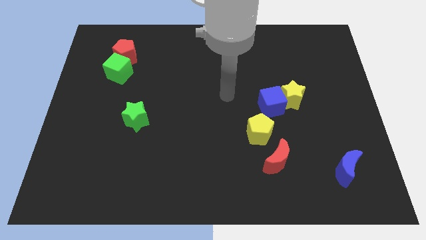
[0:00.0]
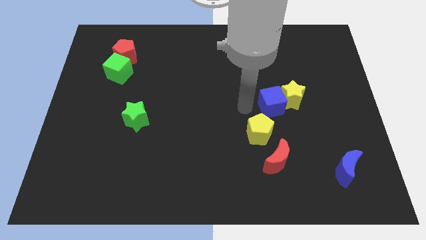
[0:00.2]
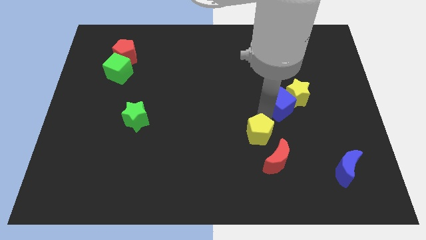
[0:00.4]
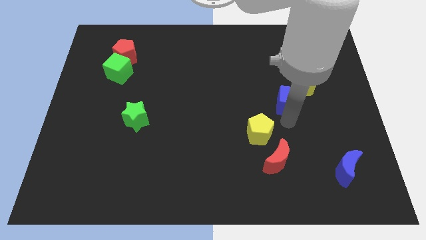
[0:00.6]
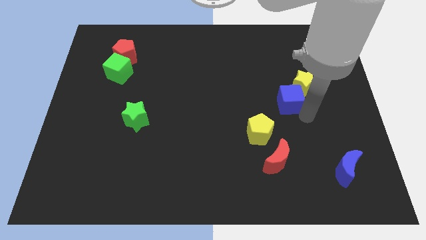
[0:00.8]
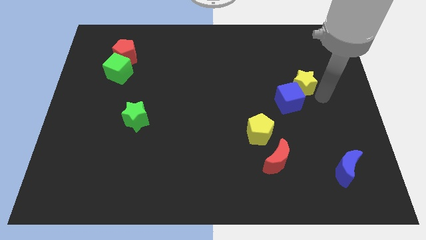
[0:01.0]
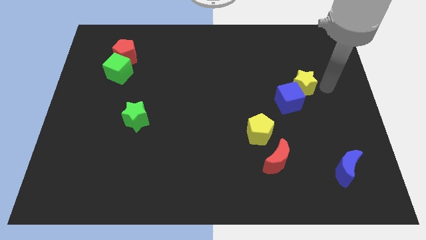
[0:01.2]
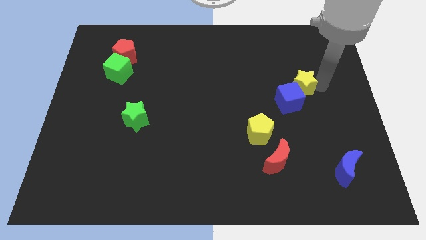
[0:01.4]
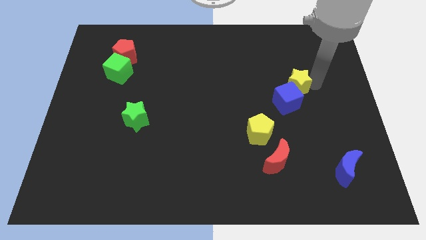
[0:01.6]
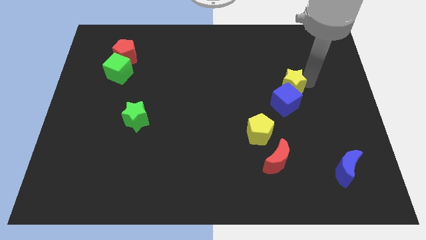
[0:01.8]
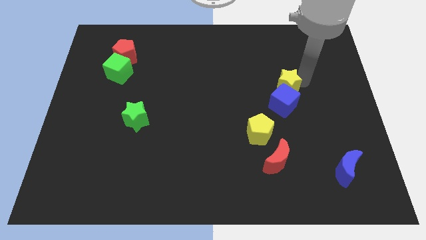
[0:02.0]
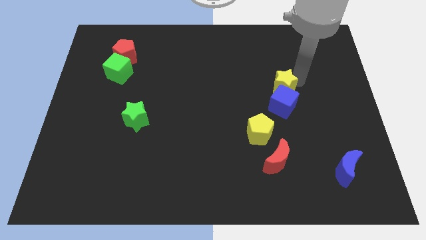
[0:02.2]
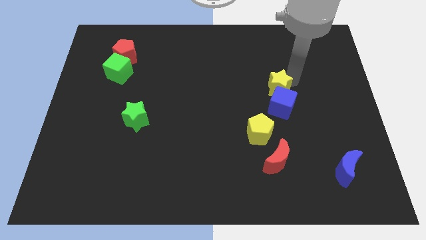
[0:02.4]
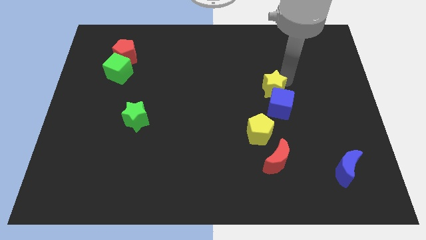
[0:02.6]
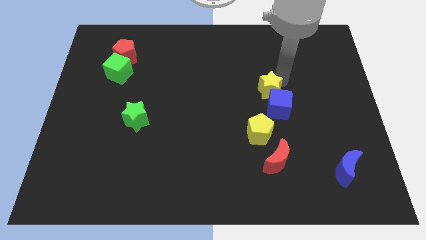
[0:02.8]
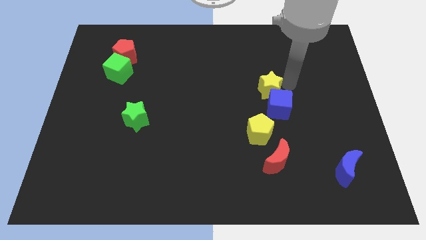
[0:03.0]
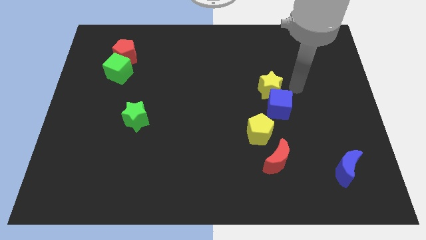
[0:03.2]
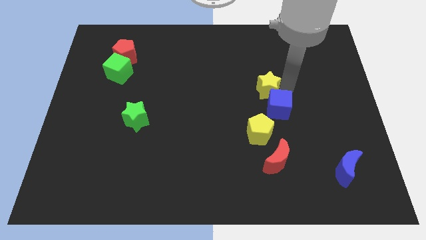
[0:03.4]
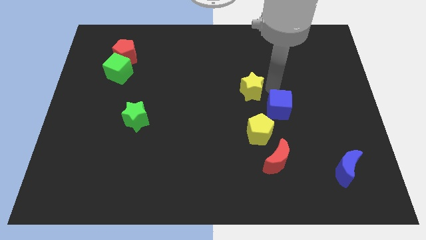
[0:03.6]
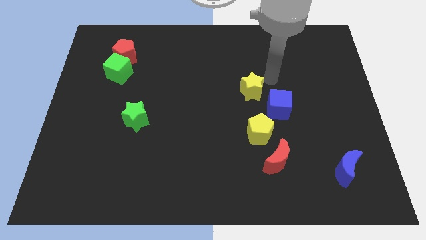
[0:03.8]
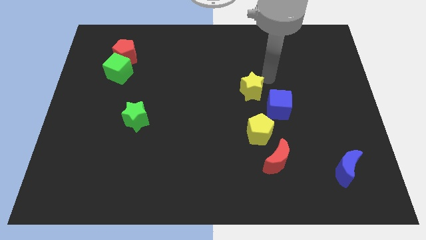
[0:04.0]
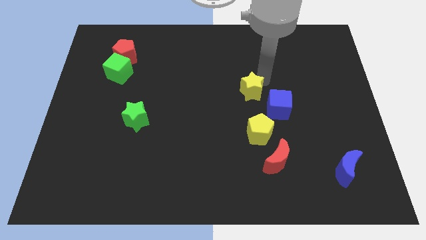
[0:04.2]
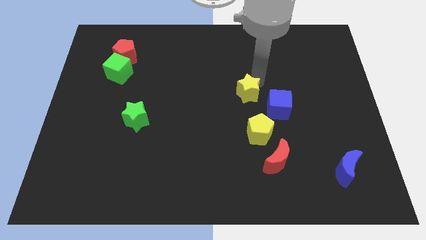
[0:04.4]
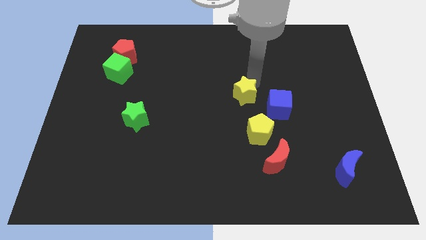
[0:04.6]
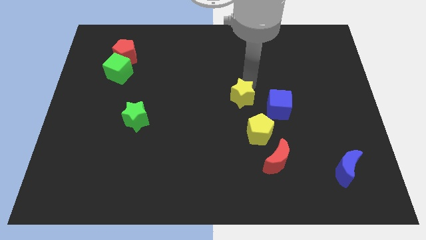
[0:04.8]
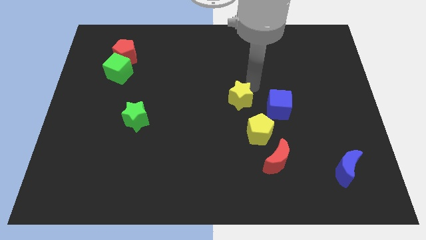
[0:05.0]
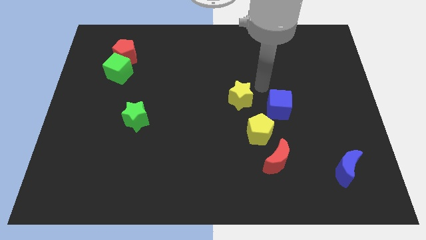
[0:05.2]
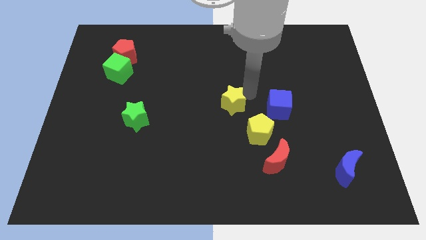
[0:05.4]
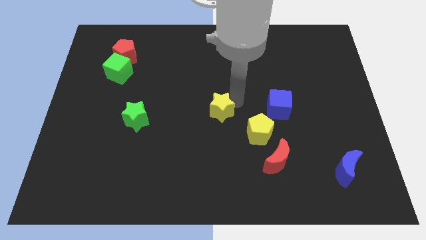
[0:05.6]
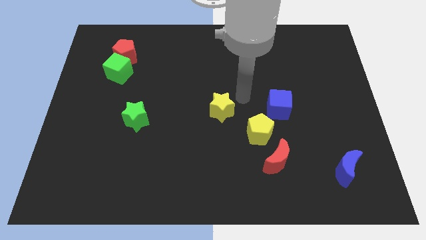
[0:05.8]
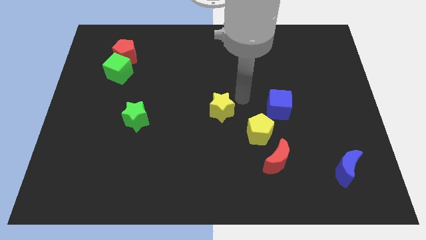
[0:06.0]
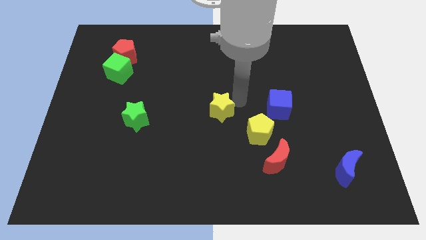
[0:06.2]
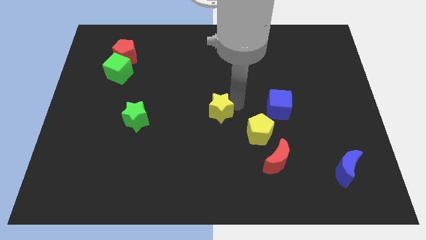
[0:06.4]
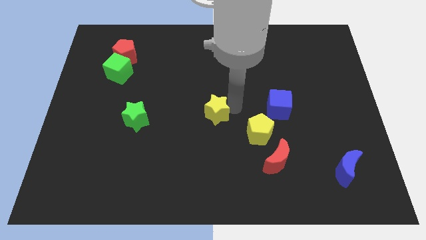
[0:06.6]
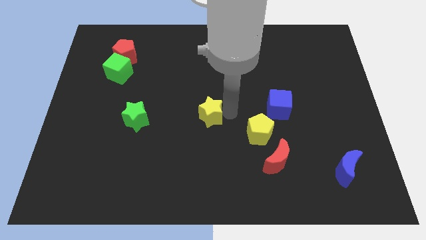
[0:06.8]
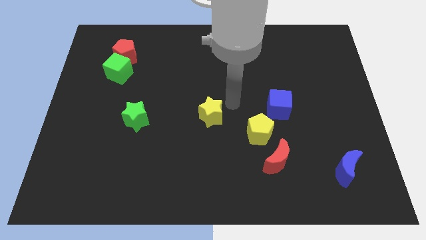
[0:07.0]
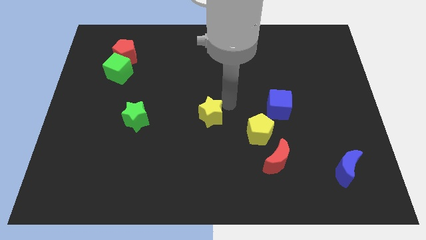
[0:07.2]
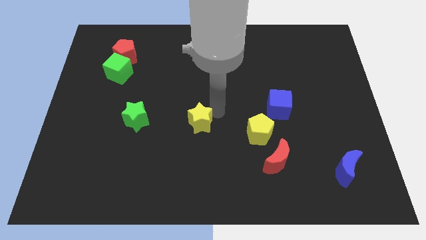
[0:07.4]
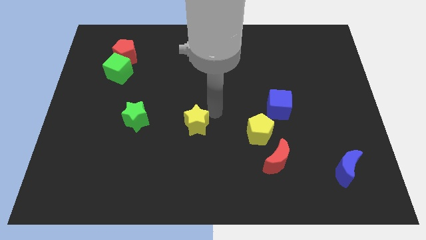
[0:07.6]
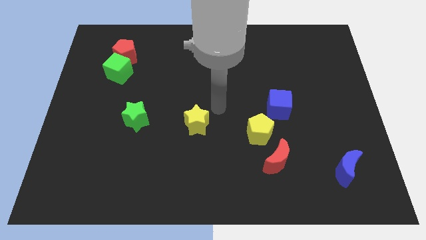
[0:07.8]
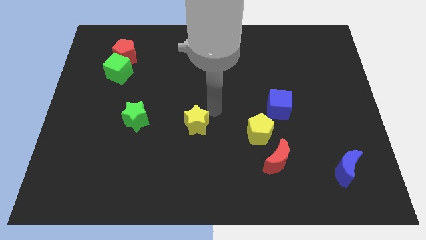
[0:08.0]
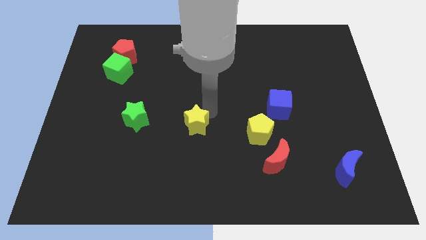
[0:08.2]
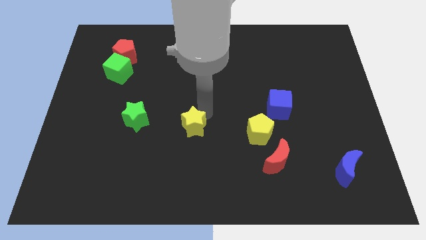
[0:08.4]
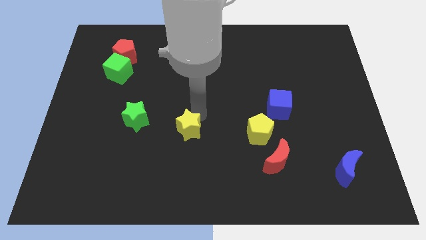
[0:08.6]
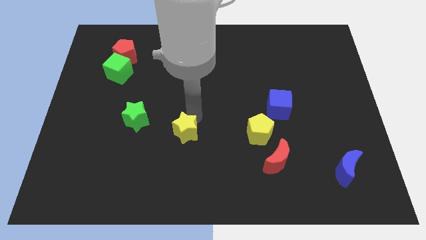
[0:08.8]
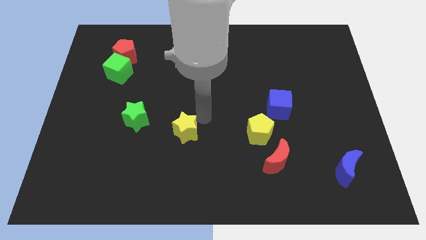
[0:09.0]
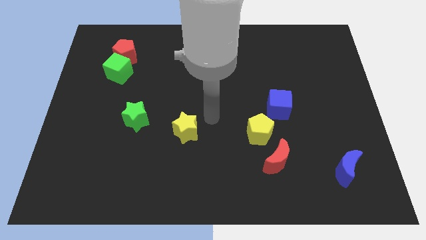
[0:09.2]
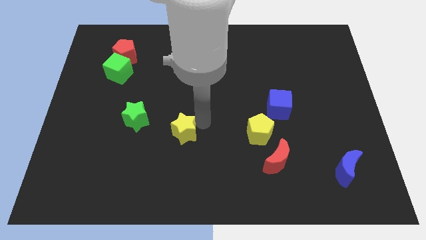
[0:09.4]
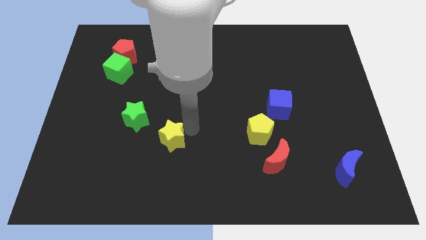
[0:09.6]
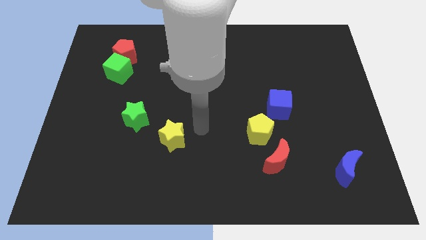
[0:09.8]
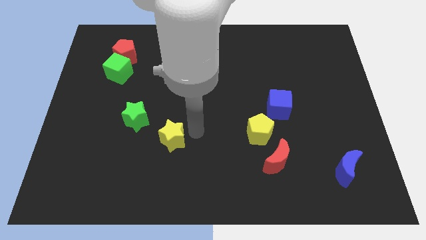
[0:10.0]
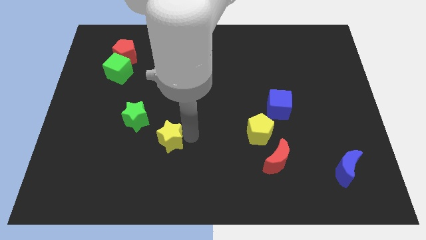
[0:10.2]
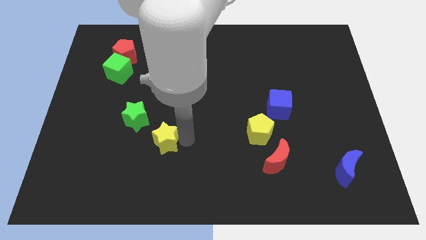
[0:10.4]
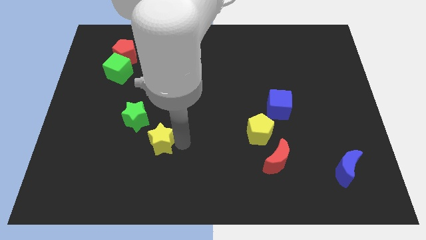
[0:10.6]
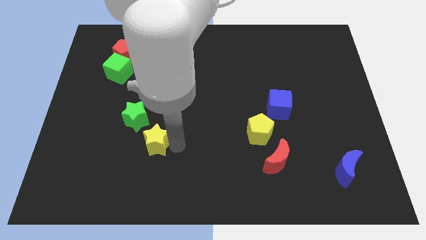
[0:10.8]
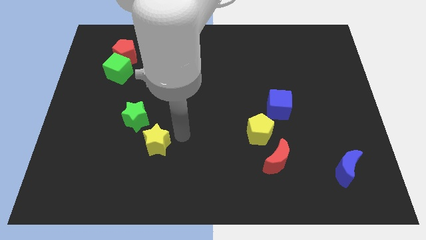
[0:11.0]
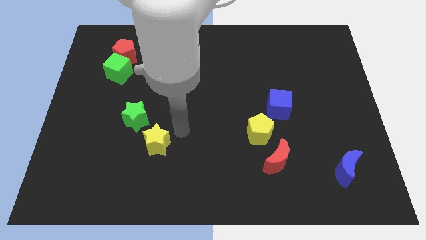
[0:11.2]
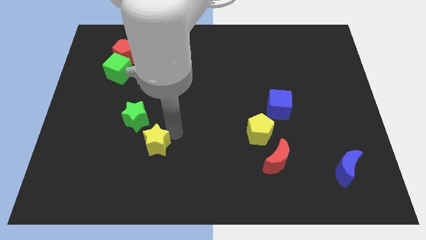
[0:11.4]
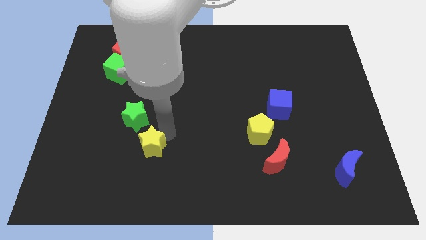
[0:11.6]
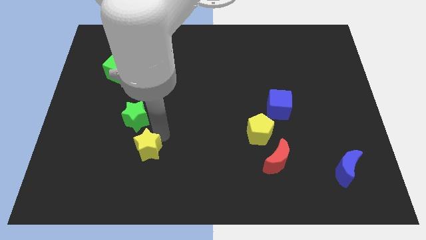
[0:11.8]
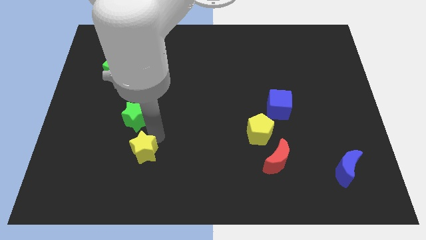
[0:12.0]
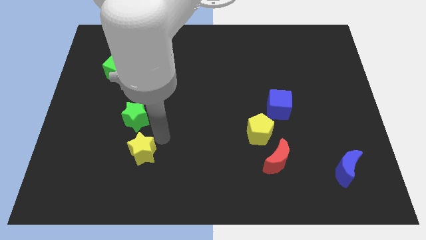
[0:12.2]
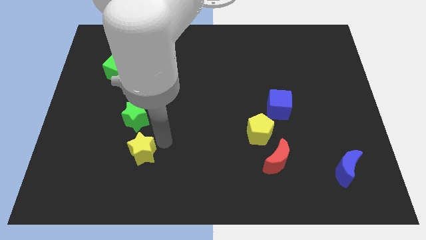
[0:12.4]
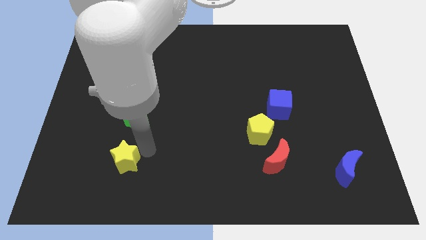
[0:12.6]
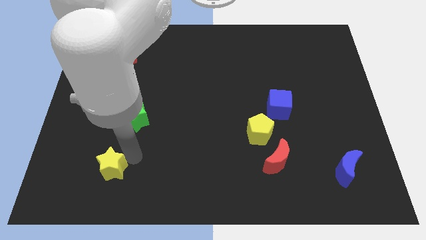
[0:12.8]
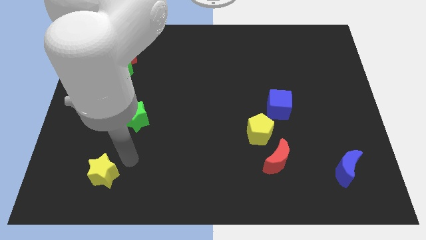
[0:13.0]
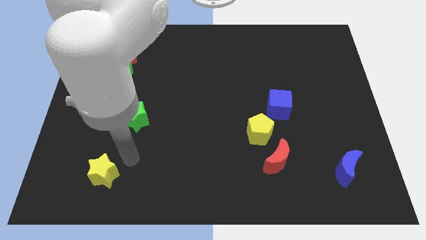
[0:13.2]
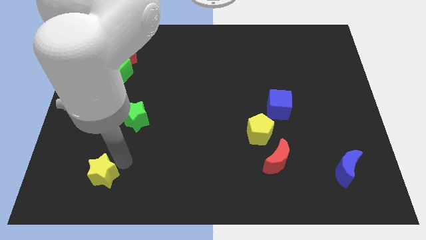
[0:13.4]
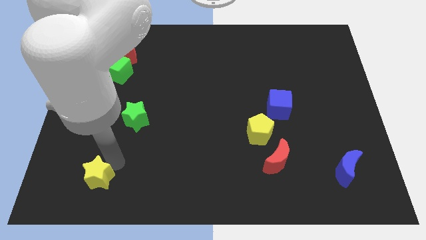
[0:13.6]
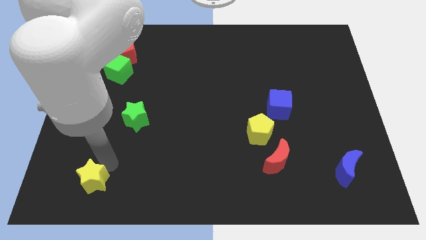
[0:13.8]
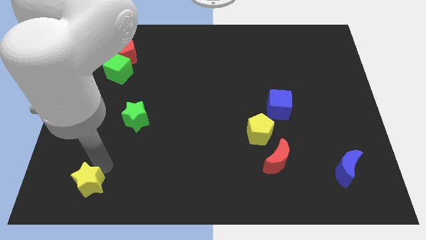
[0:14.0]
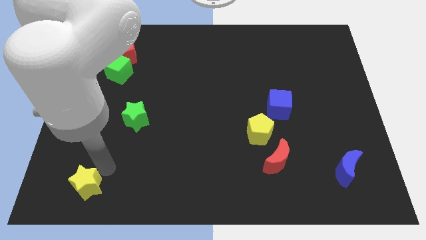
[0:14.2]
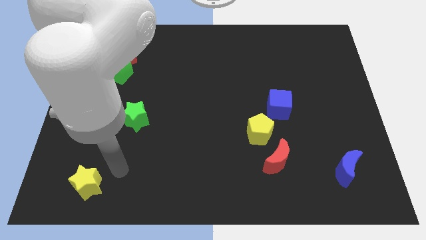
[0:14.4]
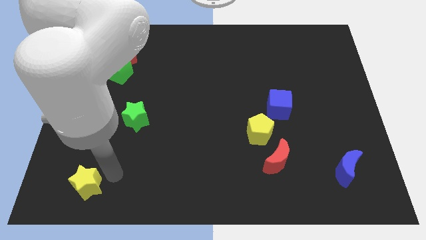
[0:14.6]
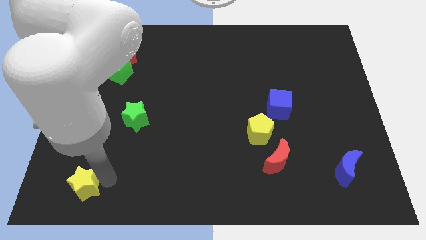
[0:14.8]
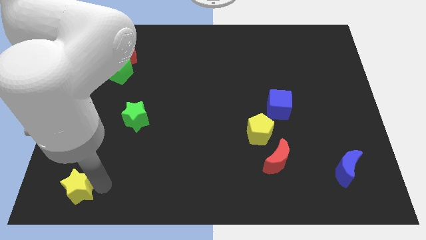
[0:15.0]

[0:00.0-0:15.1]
move the yellow star to the bottom left corner
